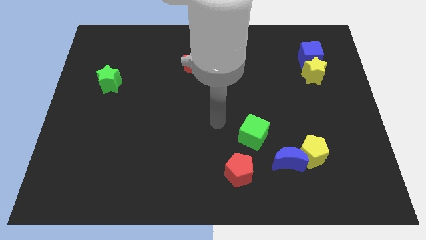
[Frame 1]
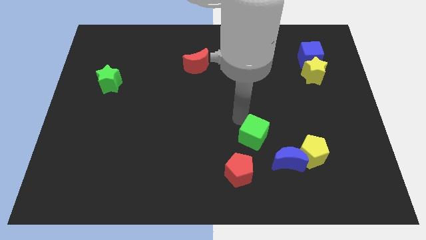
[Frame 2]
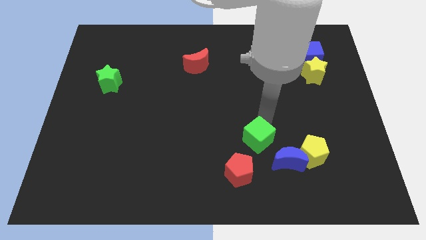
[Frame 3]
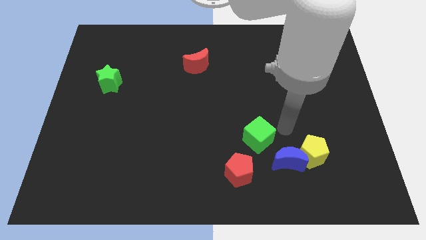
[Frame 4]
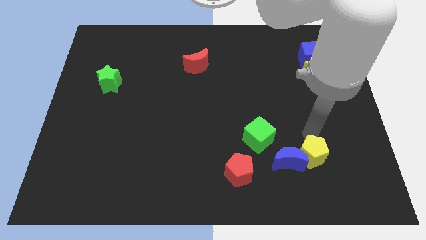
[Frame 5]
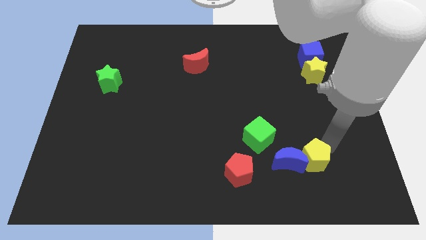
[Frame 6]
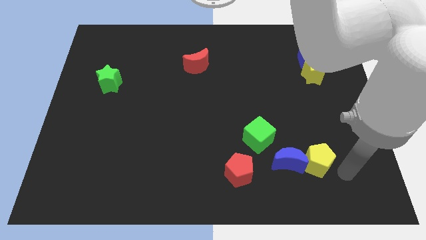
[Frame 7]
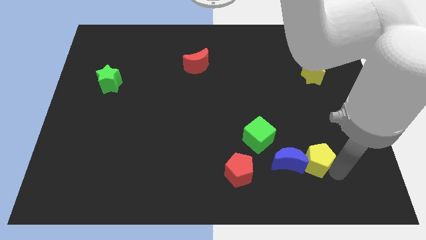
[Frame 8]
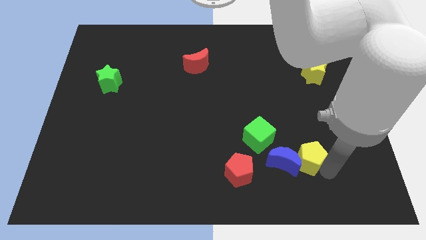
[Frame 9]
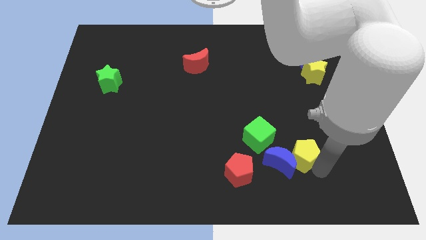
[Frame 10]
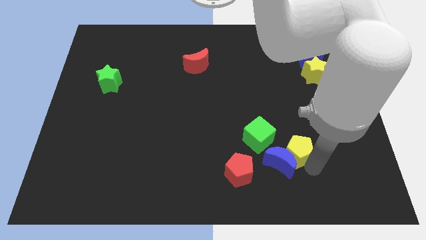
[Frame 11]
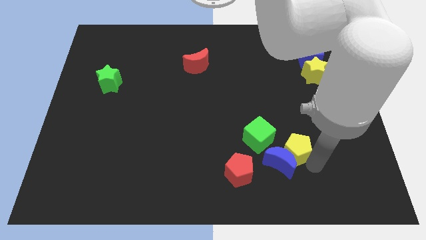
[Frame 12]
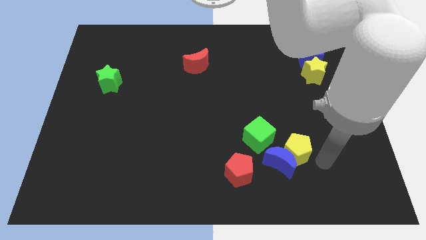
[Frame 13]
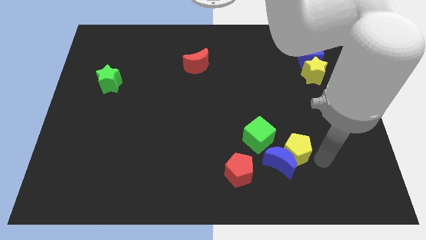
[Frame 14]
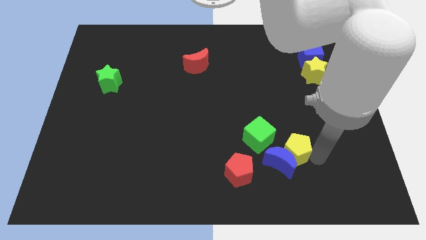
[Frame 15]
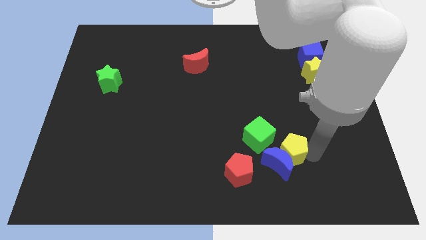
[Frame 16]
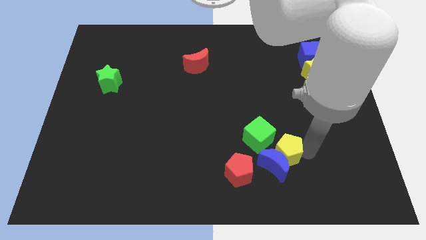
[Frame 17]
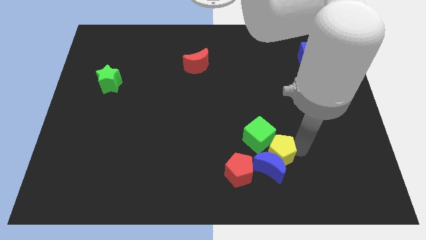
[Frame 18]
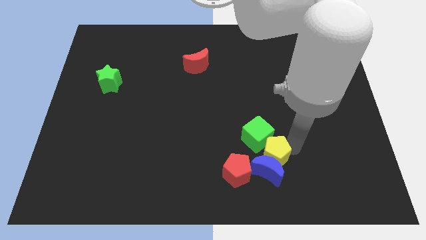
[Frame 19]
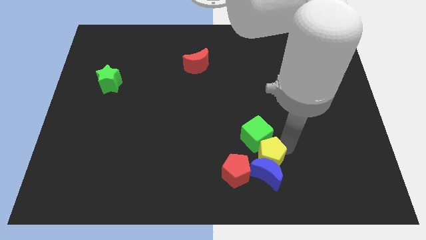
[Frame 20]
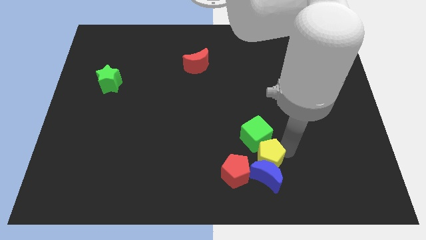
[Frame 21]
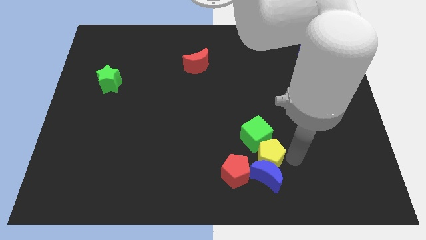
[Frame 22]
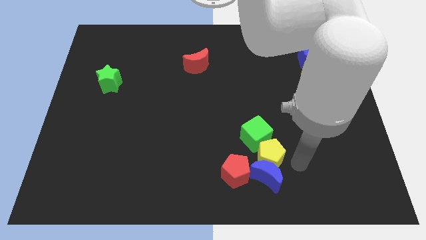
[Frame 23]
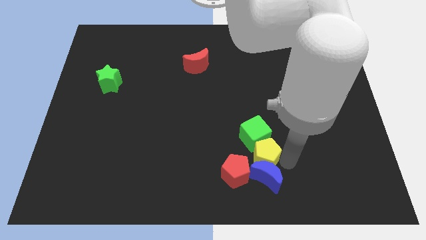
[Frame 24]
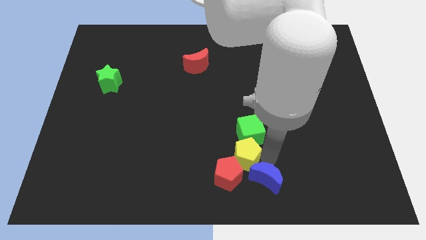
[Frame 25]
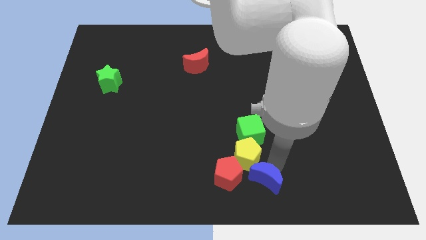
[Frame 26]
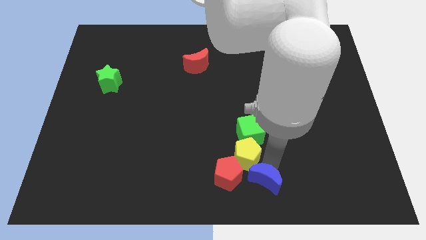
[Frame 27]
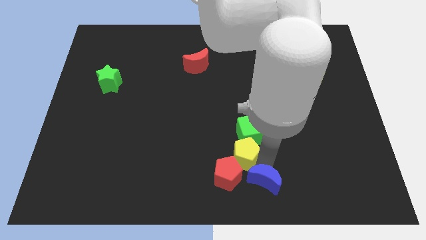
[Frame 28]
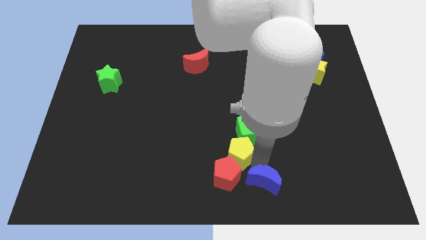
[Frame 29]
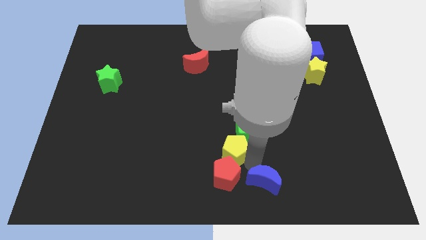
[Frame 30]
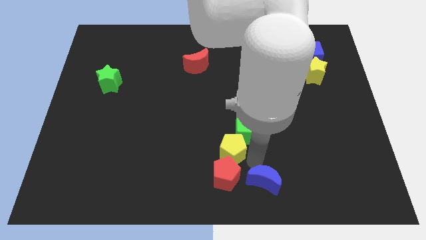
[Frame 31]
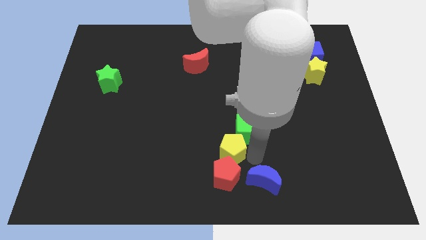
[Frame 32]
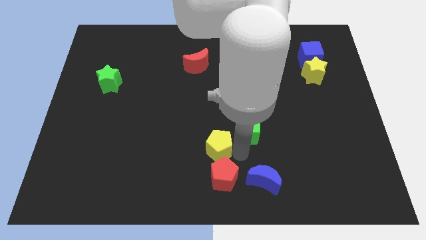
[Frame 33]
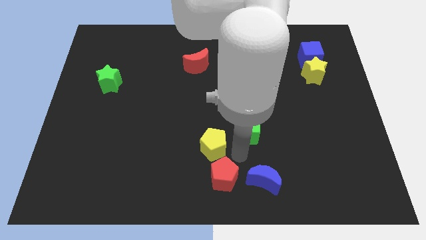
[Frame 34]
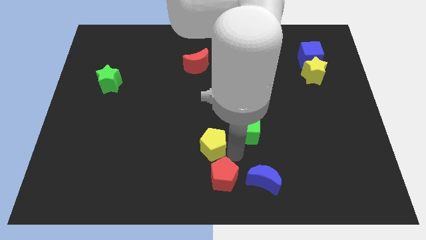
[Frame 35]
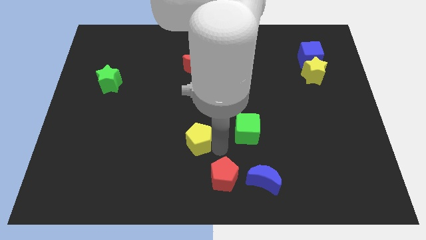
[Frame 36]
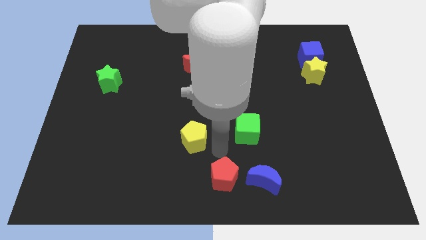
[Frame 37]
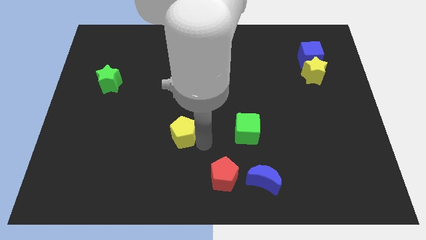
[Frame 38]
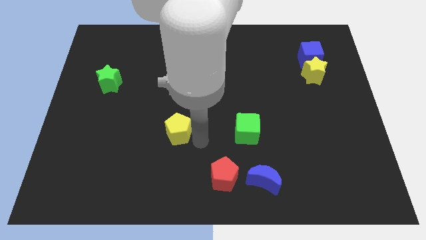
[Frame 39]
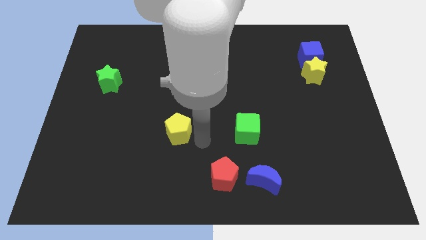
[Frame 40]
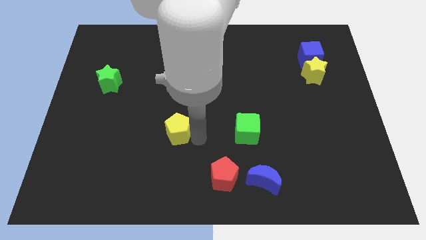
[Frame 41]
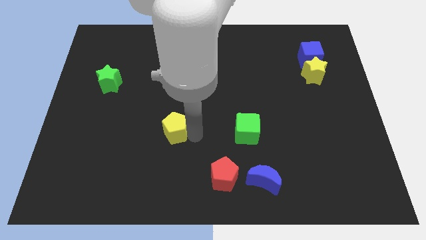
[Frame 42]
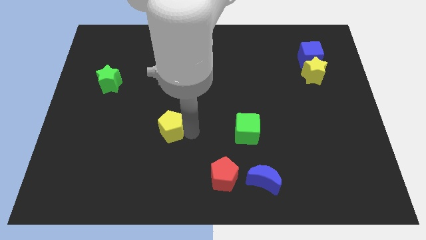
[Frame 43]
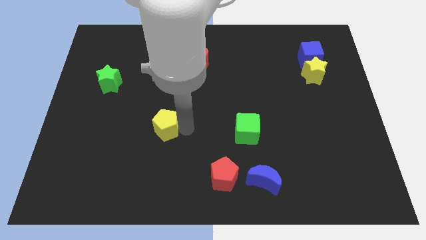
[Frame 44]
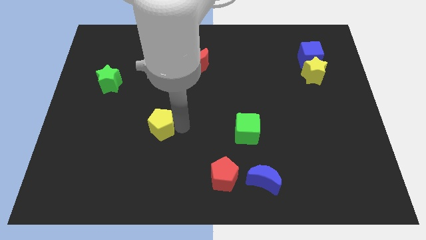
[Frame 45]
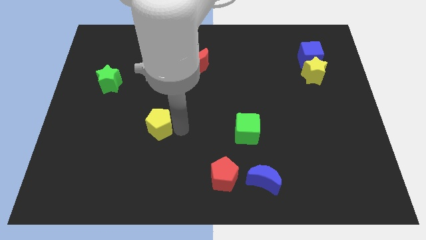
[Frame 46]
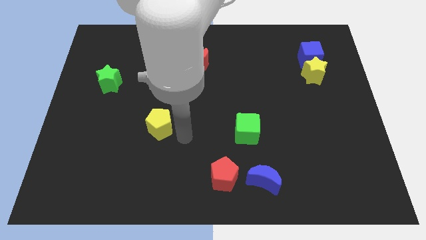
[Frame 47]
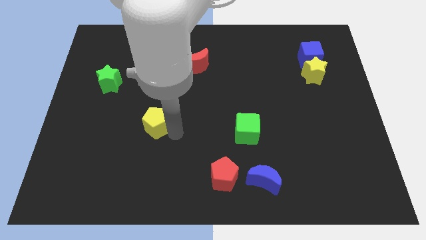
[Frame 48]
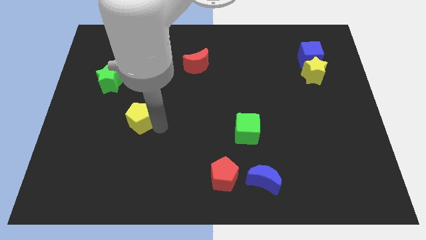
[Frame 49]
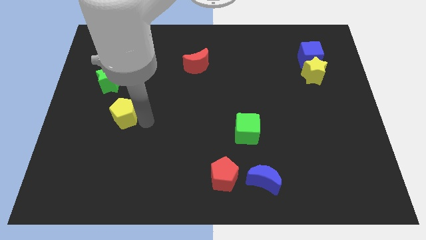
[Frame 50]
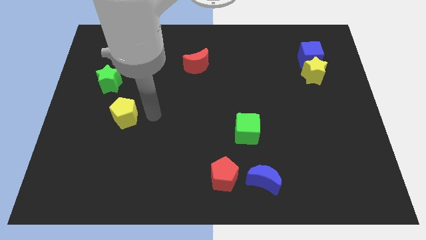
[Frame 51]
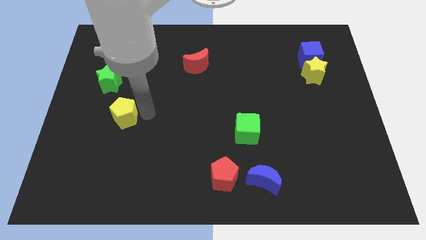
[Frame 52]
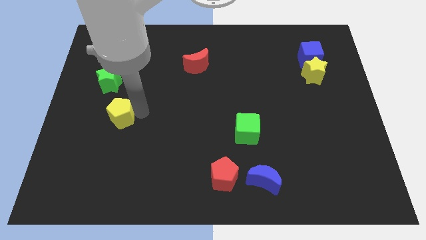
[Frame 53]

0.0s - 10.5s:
slide the yellow pentagon to the bottom of the green star

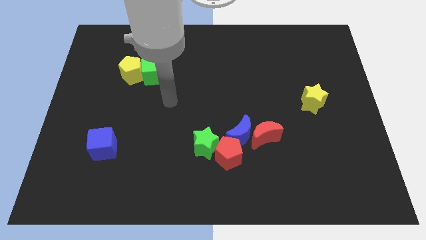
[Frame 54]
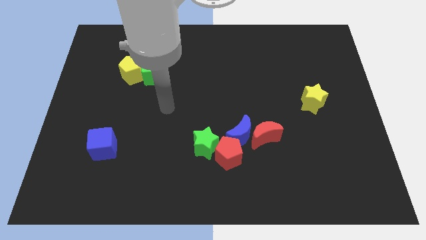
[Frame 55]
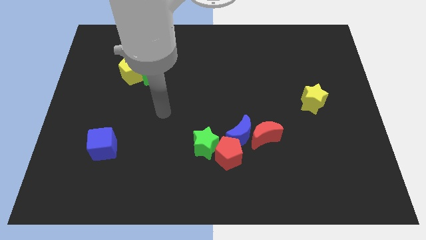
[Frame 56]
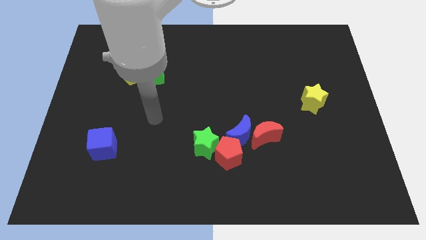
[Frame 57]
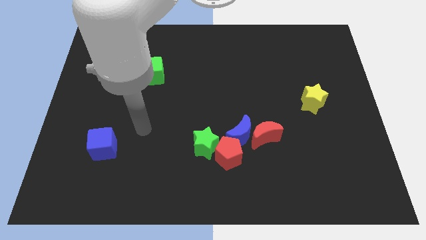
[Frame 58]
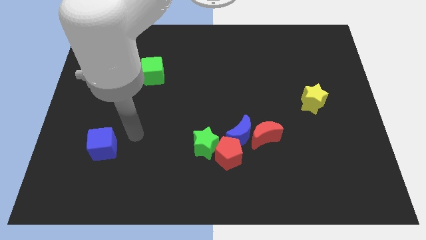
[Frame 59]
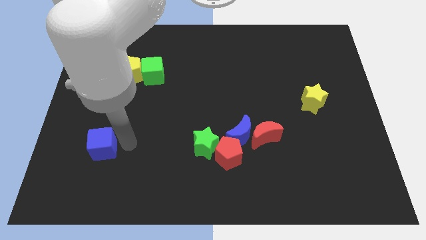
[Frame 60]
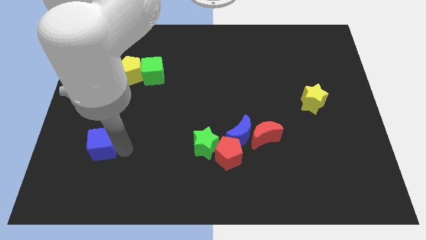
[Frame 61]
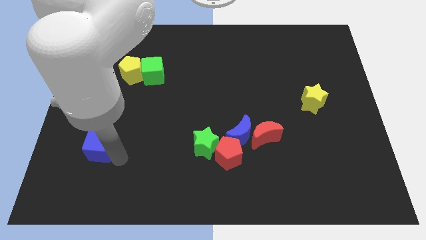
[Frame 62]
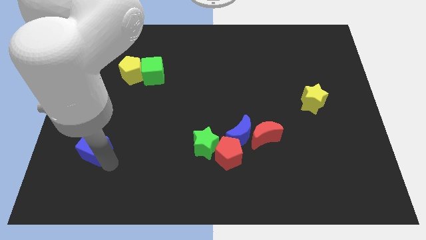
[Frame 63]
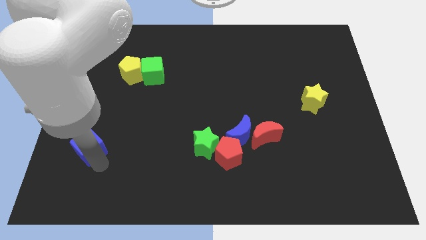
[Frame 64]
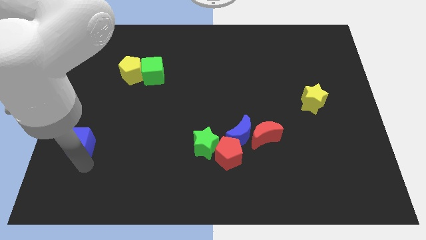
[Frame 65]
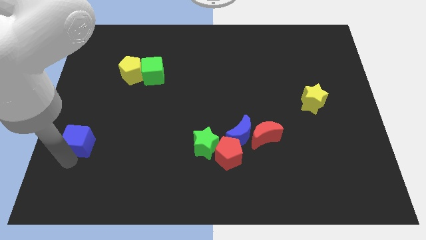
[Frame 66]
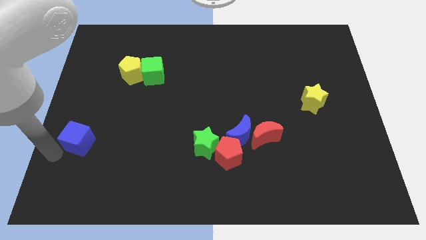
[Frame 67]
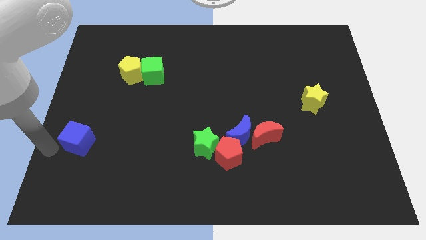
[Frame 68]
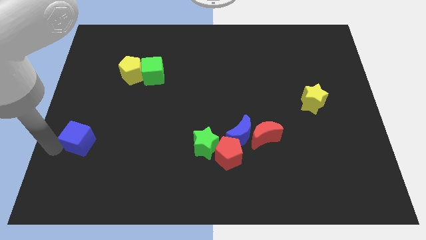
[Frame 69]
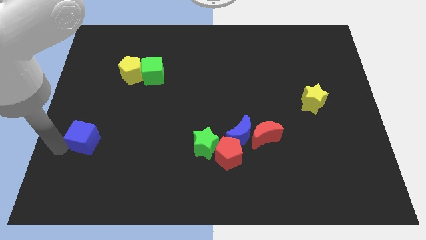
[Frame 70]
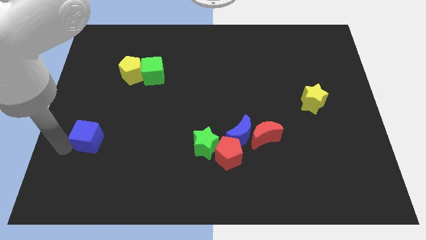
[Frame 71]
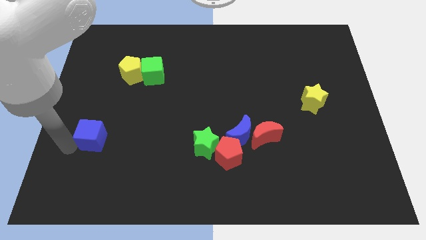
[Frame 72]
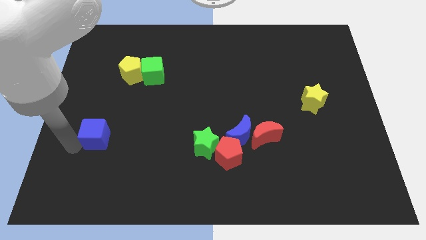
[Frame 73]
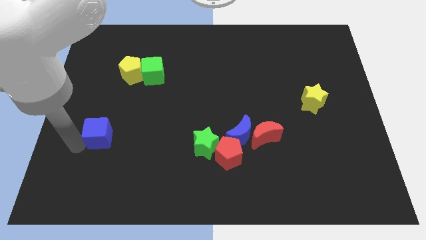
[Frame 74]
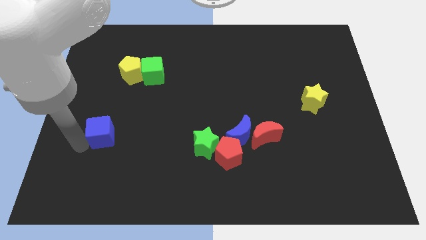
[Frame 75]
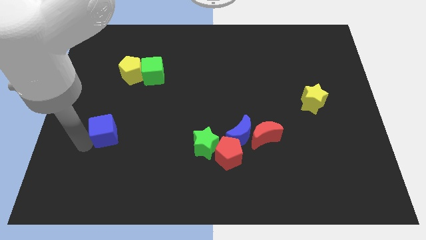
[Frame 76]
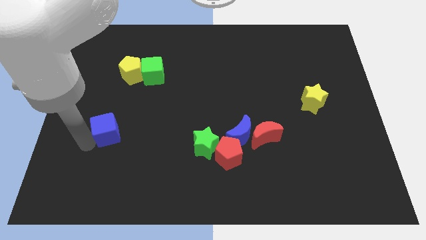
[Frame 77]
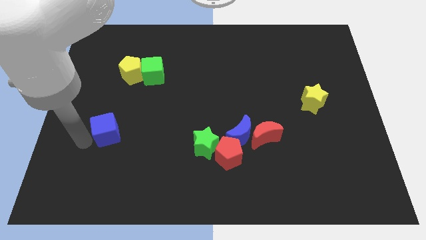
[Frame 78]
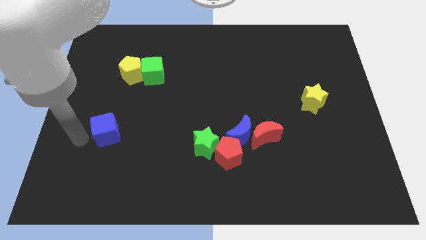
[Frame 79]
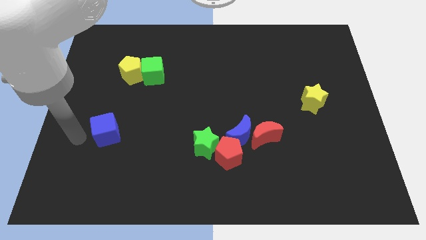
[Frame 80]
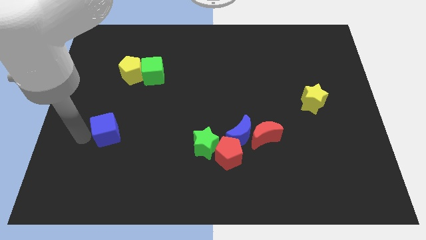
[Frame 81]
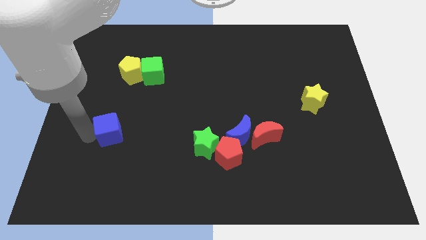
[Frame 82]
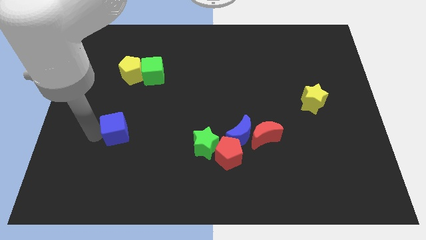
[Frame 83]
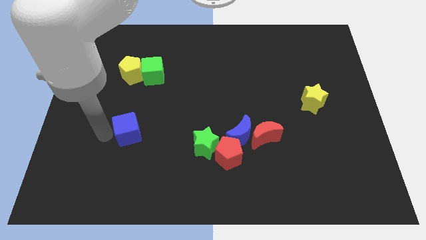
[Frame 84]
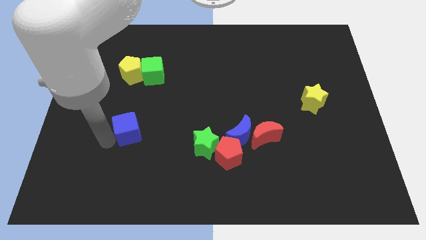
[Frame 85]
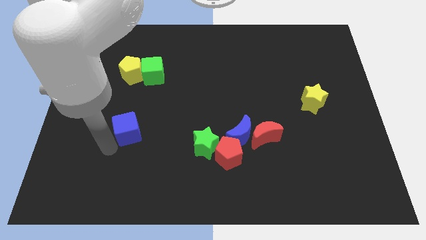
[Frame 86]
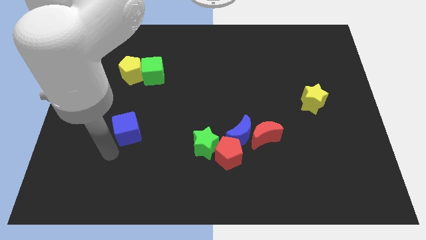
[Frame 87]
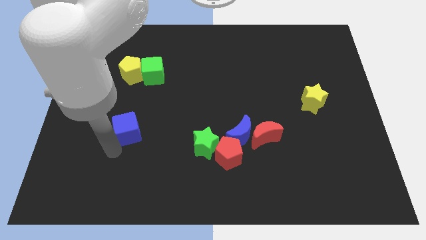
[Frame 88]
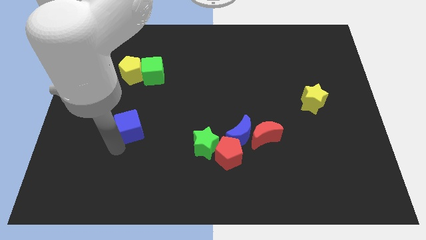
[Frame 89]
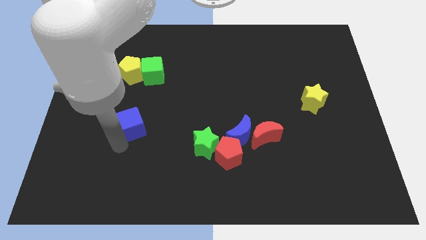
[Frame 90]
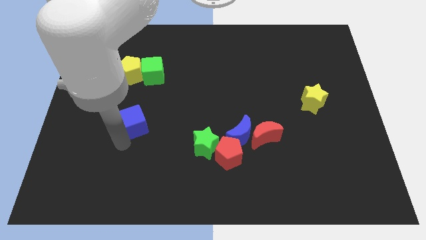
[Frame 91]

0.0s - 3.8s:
move the blue cube to the bottom side of the green cube
